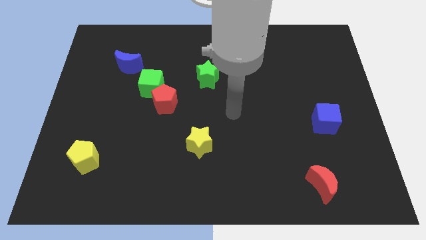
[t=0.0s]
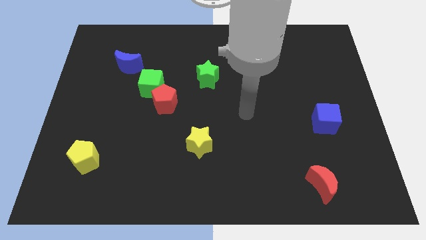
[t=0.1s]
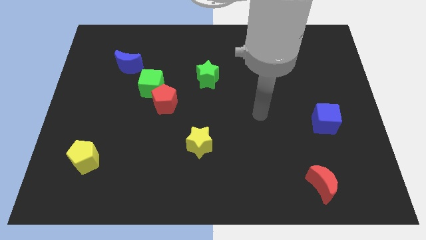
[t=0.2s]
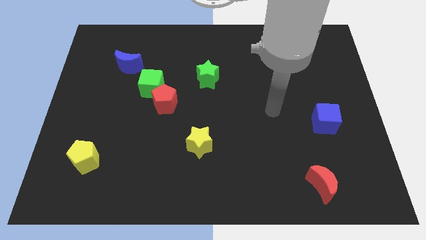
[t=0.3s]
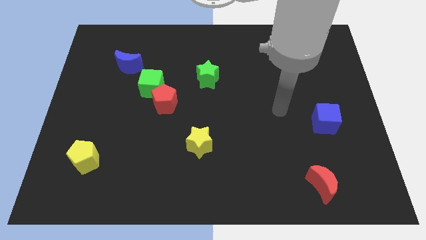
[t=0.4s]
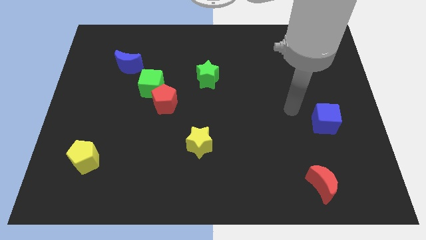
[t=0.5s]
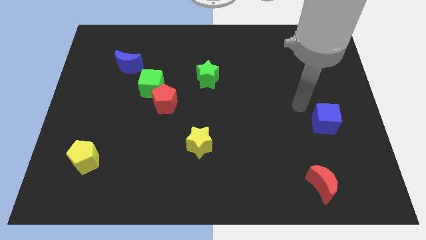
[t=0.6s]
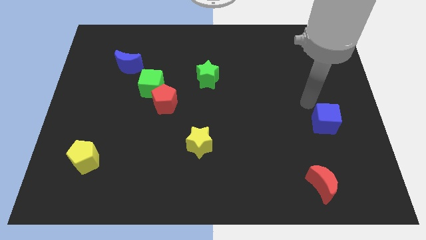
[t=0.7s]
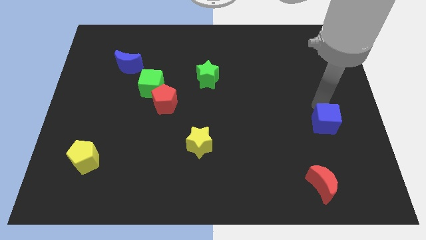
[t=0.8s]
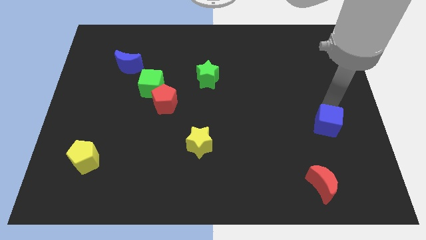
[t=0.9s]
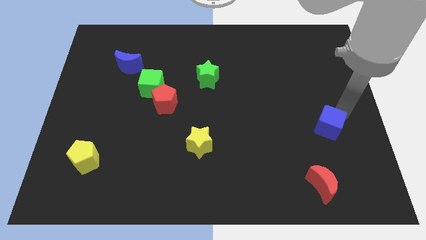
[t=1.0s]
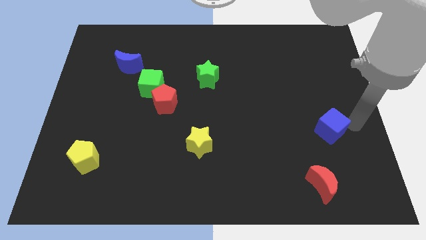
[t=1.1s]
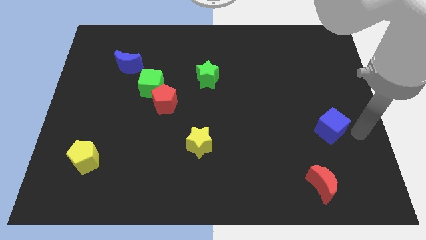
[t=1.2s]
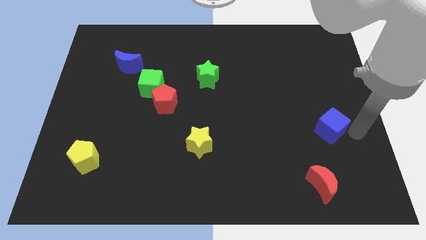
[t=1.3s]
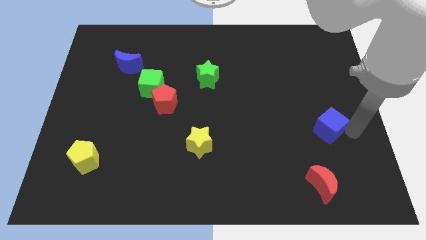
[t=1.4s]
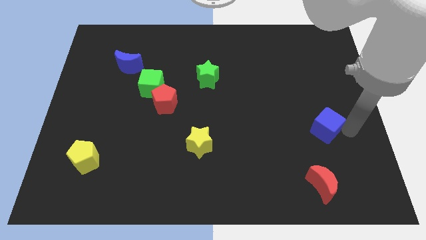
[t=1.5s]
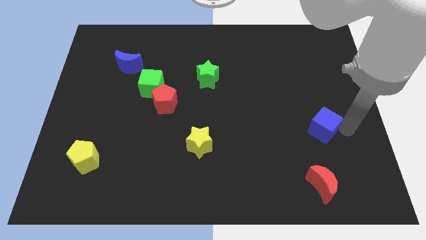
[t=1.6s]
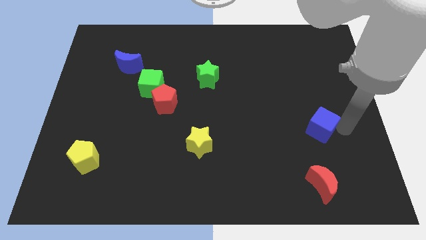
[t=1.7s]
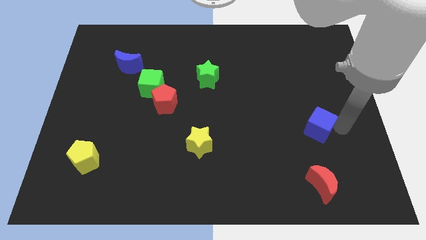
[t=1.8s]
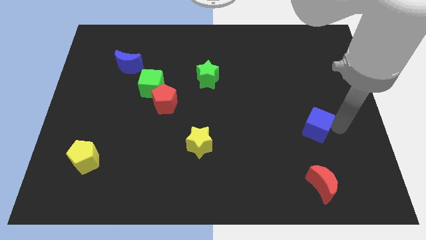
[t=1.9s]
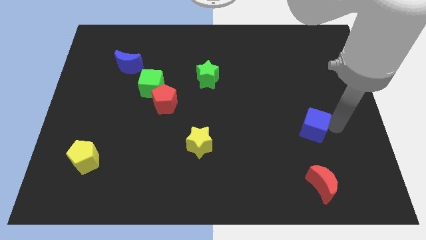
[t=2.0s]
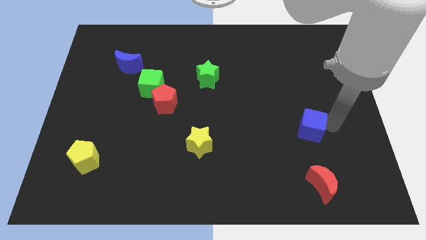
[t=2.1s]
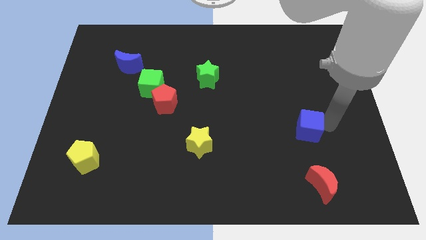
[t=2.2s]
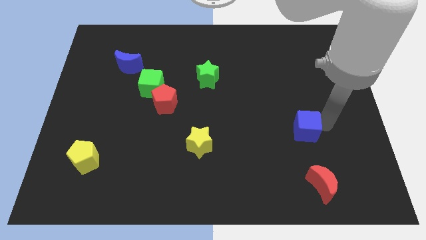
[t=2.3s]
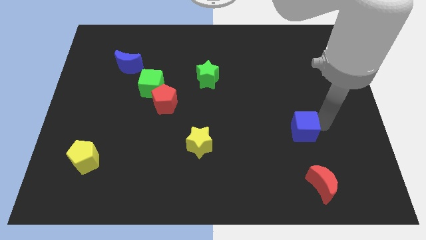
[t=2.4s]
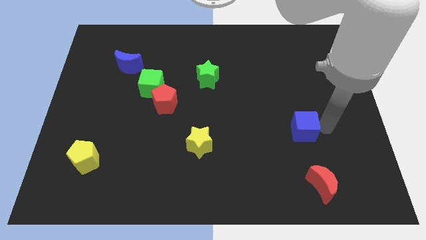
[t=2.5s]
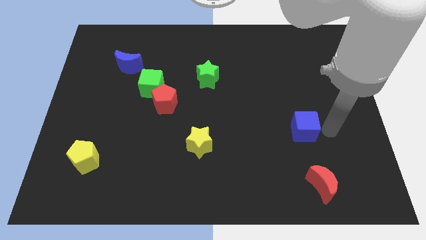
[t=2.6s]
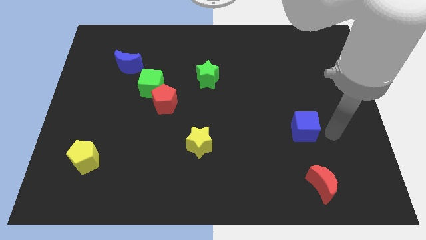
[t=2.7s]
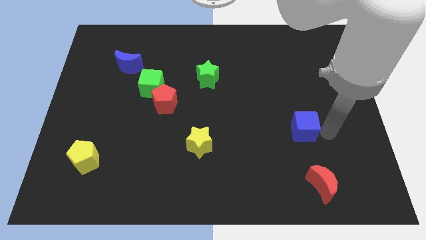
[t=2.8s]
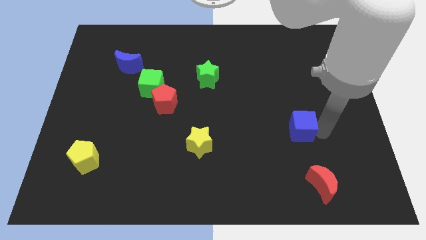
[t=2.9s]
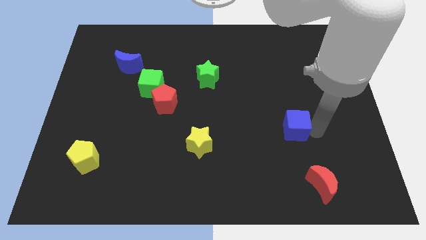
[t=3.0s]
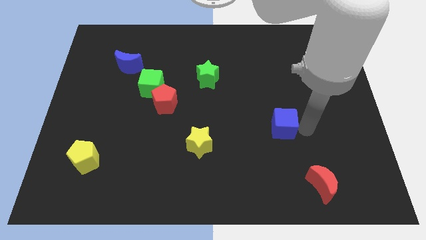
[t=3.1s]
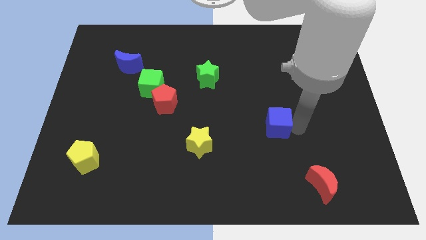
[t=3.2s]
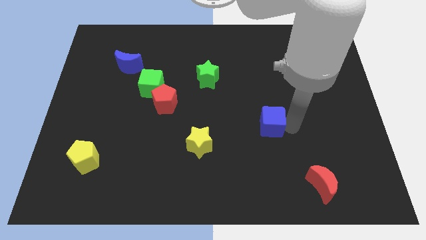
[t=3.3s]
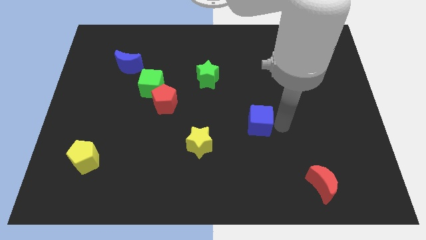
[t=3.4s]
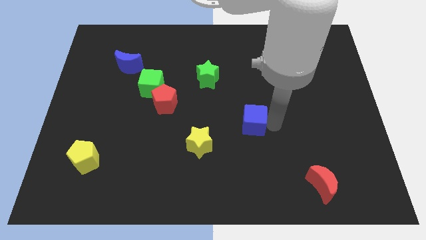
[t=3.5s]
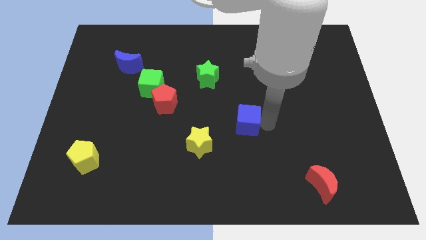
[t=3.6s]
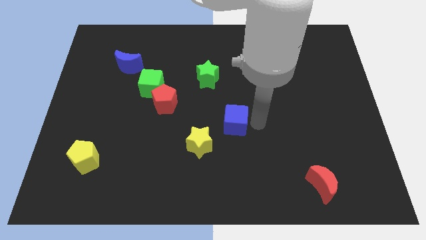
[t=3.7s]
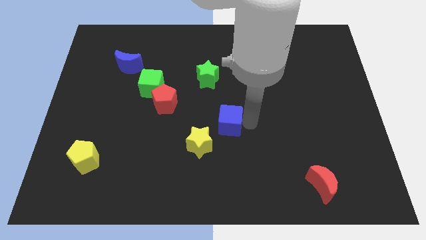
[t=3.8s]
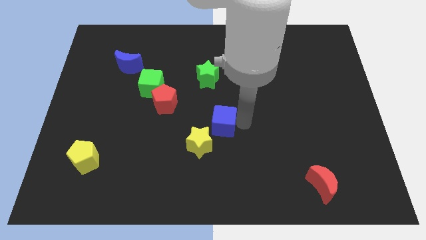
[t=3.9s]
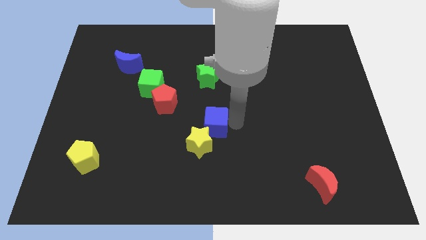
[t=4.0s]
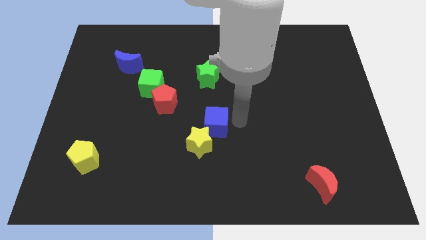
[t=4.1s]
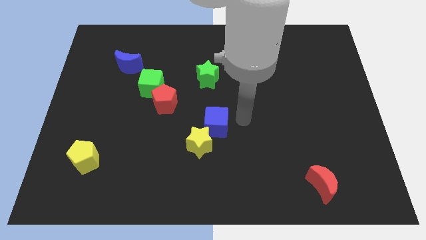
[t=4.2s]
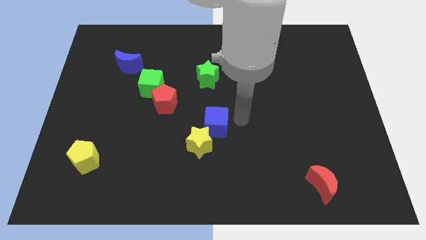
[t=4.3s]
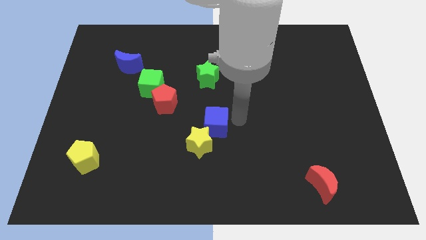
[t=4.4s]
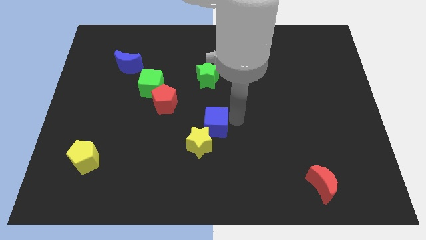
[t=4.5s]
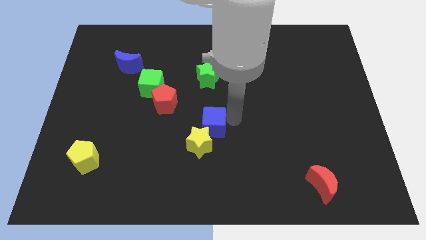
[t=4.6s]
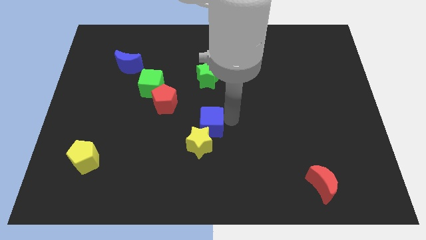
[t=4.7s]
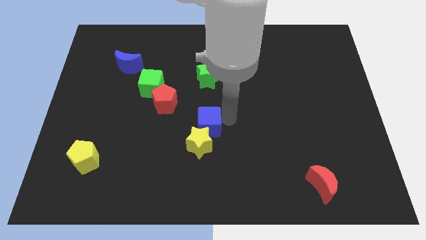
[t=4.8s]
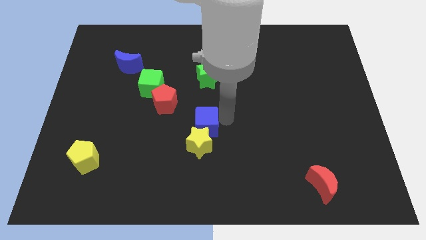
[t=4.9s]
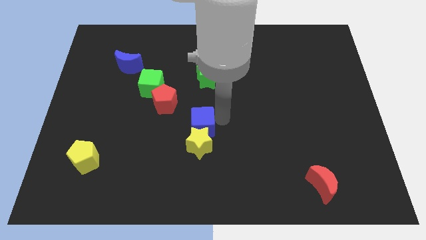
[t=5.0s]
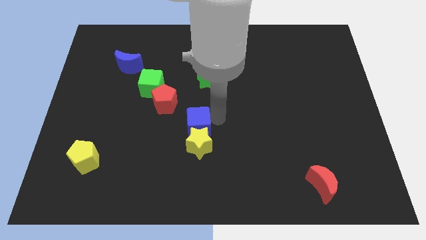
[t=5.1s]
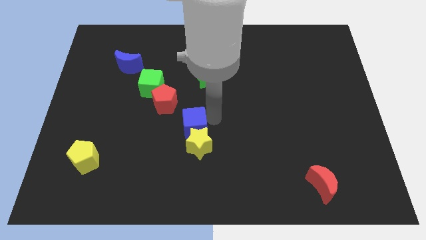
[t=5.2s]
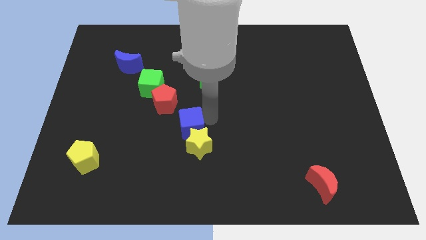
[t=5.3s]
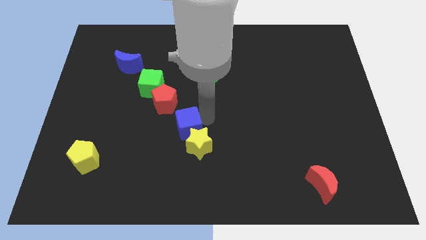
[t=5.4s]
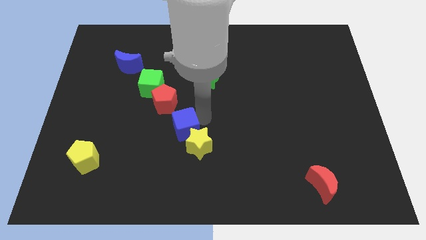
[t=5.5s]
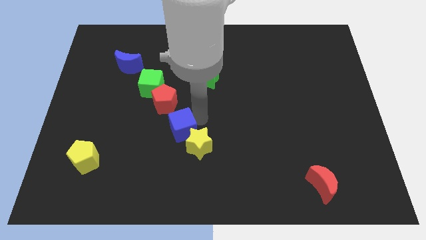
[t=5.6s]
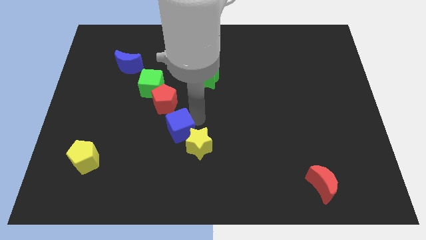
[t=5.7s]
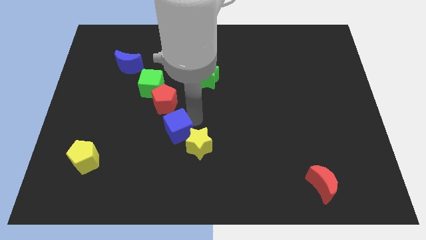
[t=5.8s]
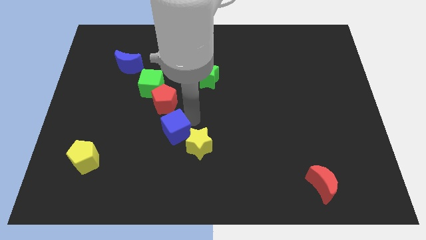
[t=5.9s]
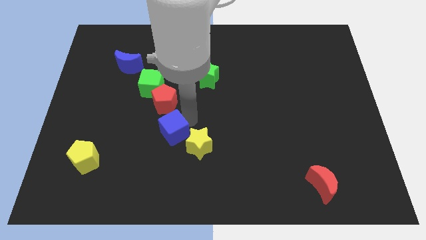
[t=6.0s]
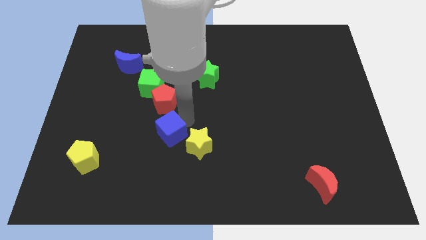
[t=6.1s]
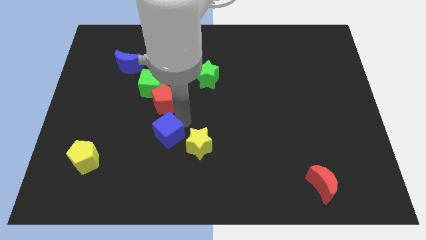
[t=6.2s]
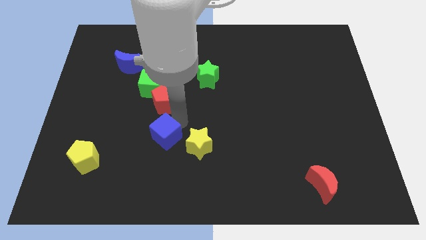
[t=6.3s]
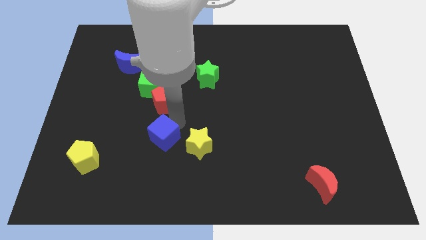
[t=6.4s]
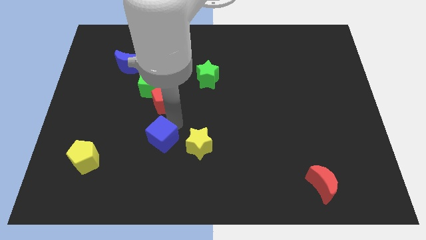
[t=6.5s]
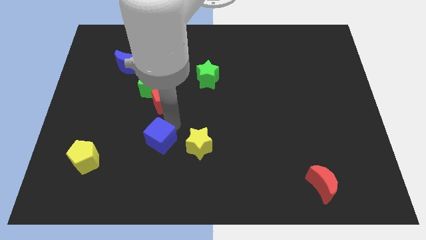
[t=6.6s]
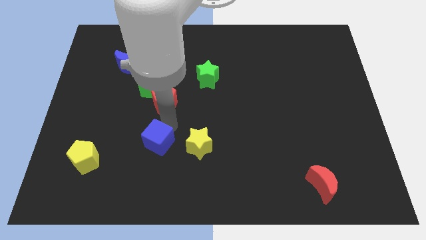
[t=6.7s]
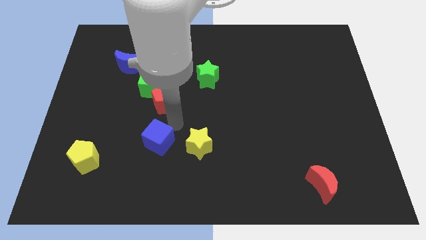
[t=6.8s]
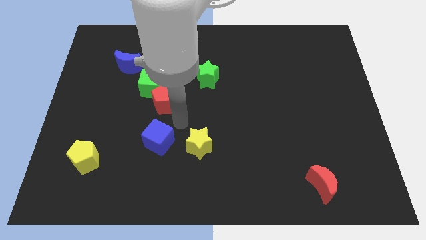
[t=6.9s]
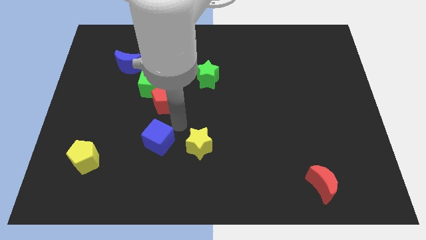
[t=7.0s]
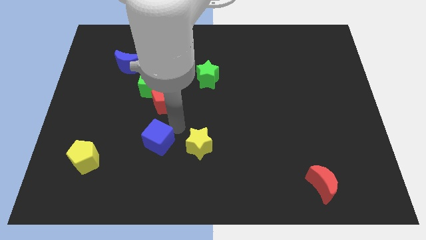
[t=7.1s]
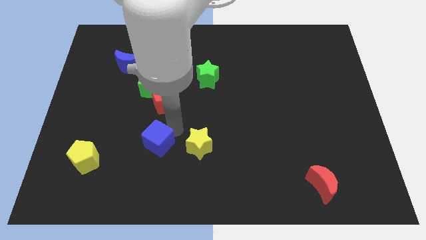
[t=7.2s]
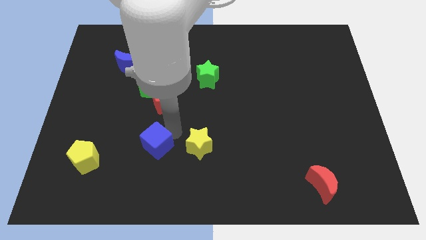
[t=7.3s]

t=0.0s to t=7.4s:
put the blue cube to the right of the yellow pentagon
